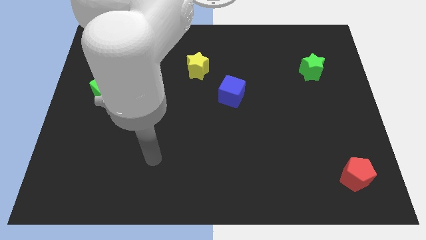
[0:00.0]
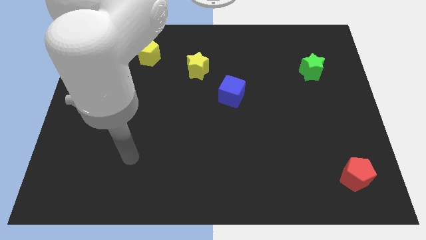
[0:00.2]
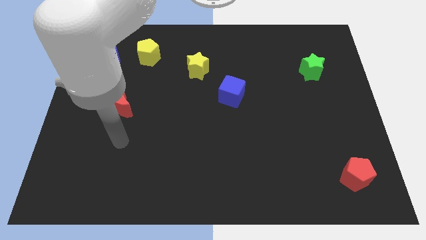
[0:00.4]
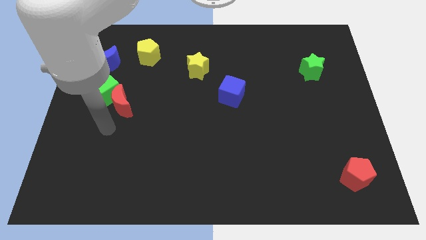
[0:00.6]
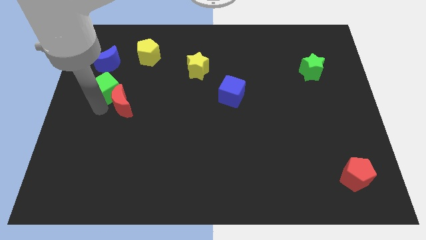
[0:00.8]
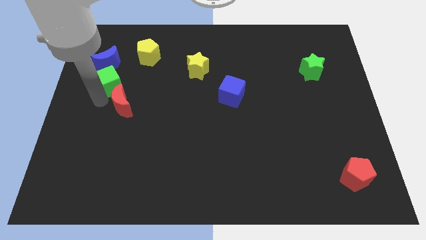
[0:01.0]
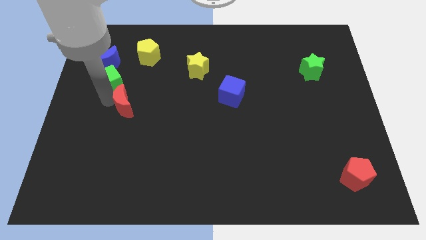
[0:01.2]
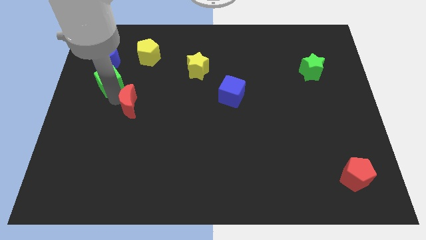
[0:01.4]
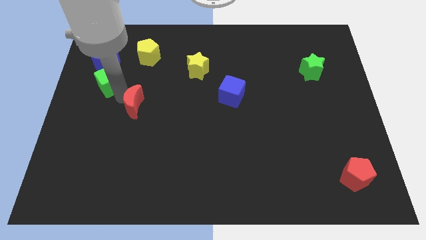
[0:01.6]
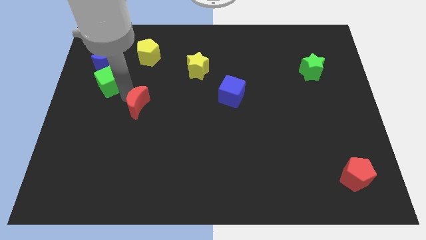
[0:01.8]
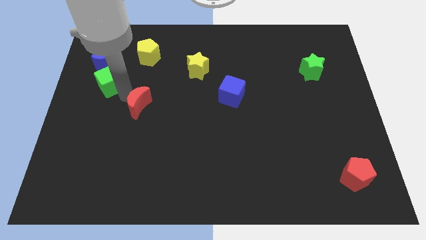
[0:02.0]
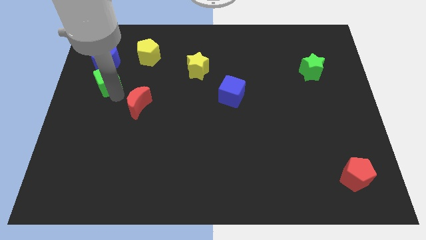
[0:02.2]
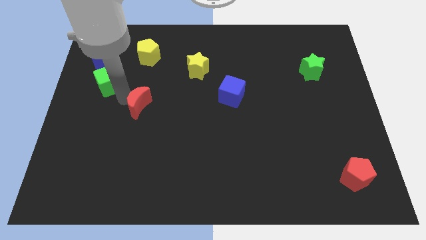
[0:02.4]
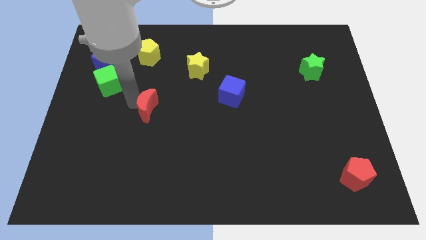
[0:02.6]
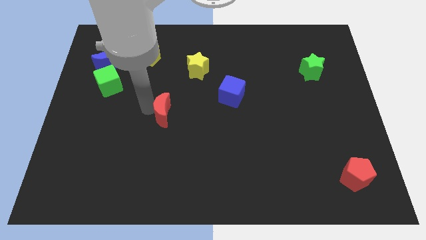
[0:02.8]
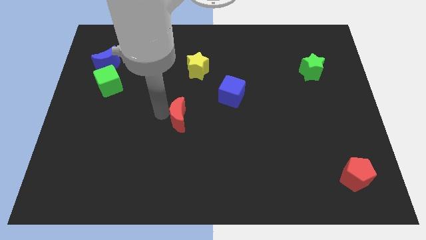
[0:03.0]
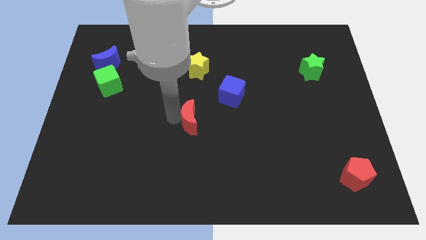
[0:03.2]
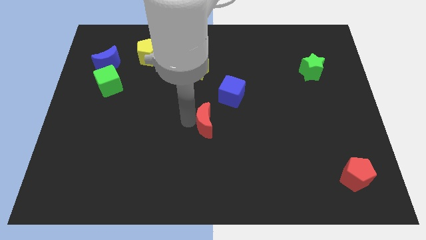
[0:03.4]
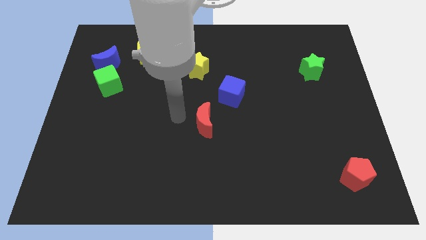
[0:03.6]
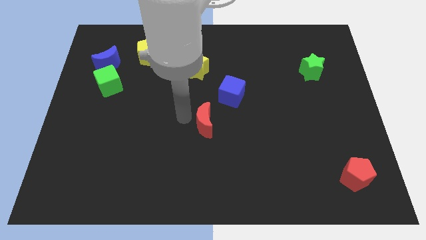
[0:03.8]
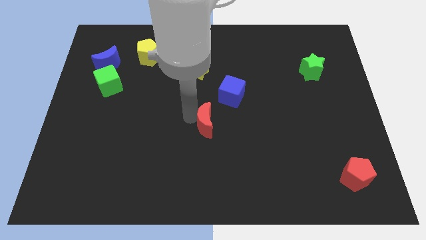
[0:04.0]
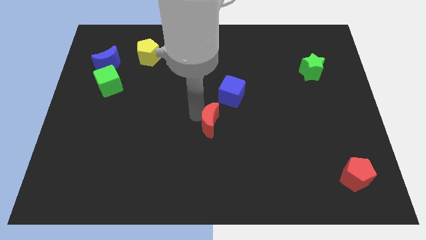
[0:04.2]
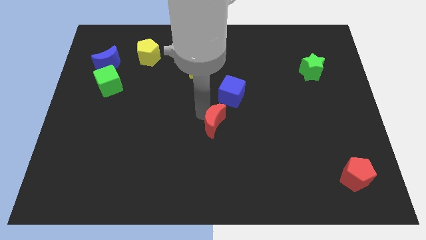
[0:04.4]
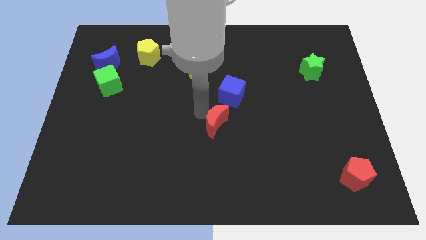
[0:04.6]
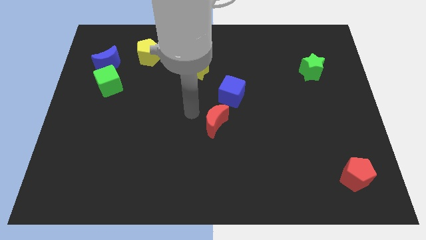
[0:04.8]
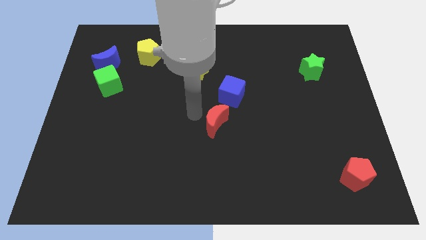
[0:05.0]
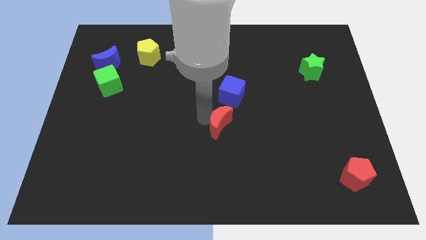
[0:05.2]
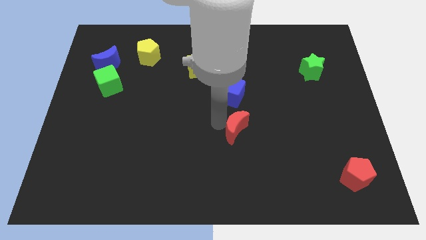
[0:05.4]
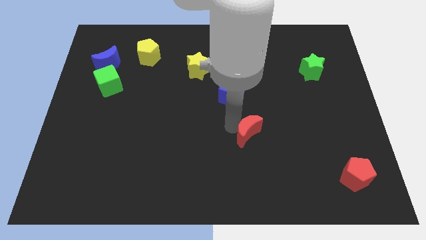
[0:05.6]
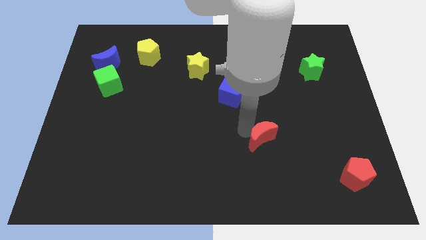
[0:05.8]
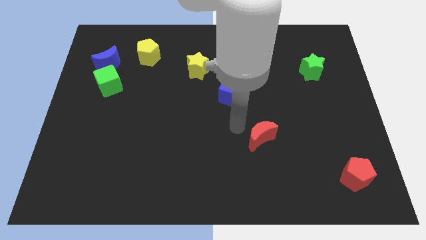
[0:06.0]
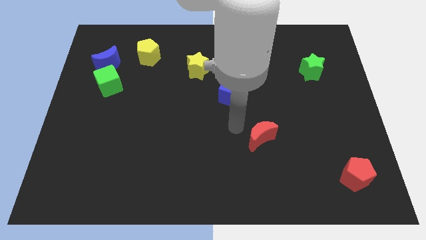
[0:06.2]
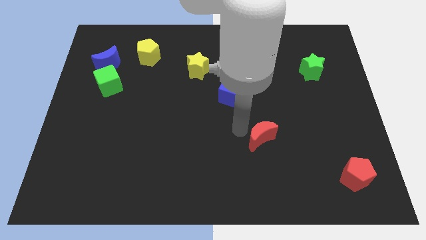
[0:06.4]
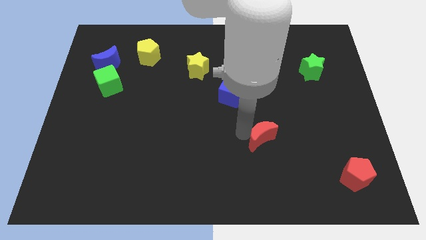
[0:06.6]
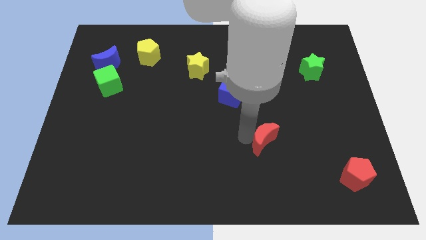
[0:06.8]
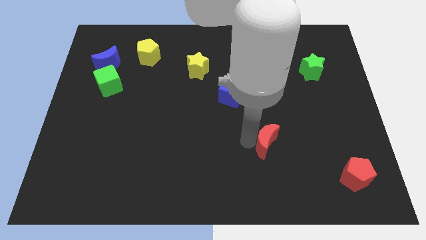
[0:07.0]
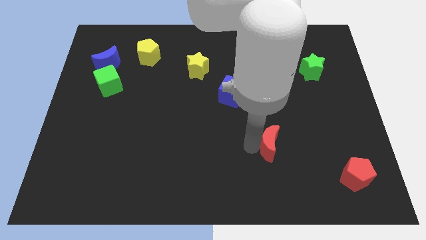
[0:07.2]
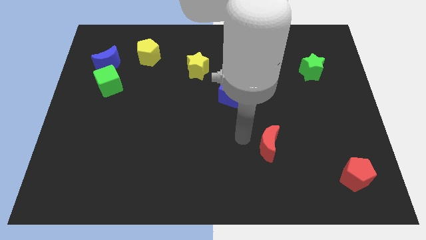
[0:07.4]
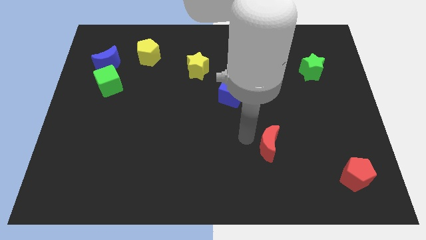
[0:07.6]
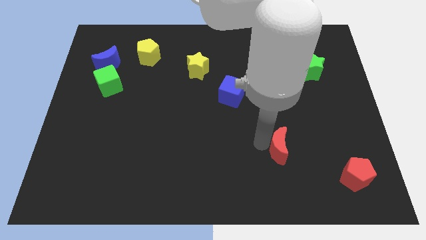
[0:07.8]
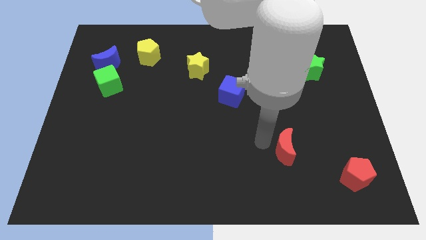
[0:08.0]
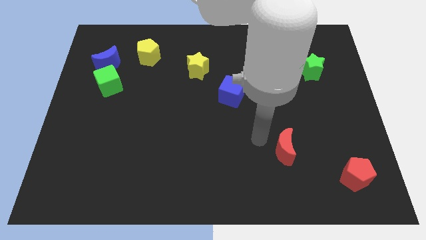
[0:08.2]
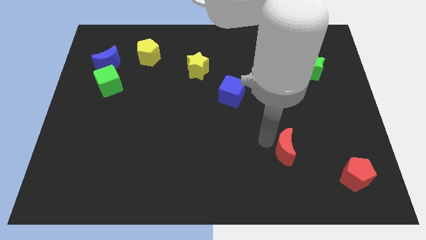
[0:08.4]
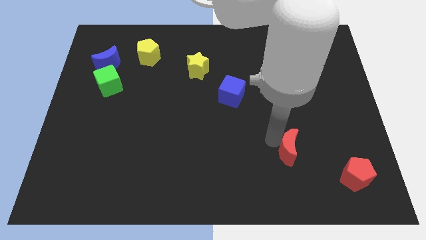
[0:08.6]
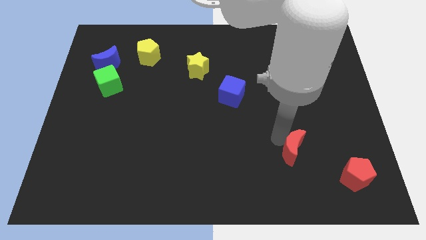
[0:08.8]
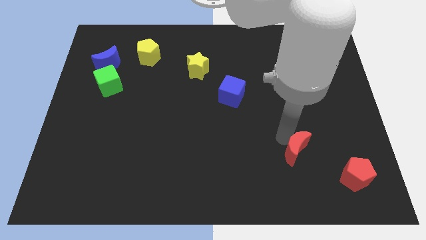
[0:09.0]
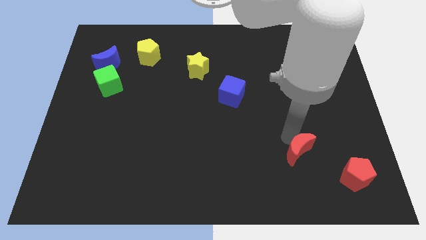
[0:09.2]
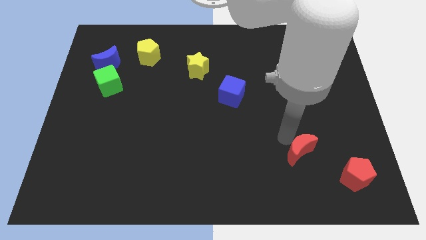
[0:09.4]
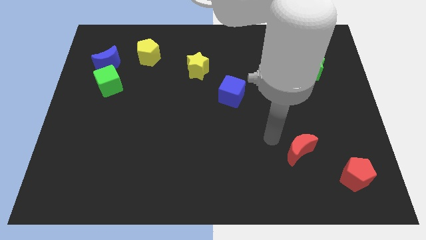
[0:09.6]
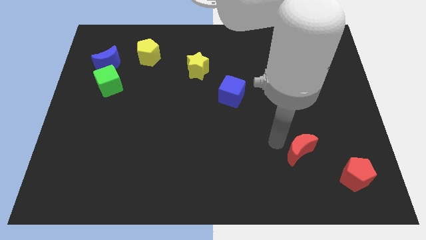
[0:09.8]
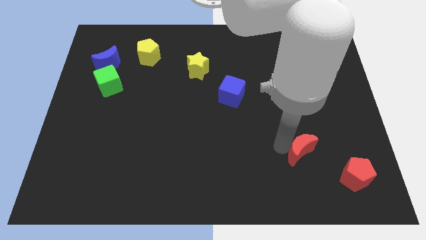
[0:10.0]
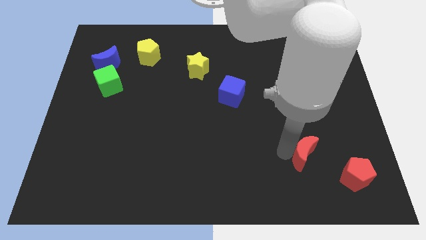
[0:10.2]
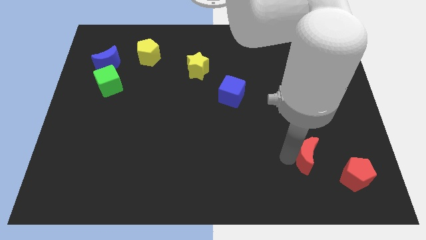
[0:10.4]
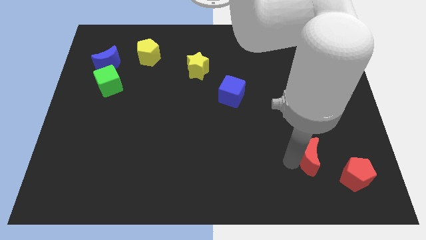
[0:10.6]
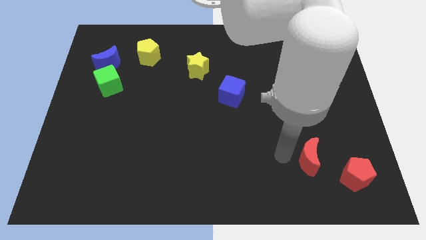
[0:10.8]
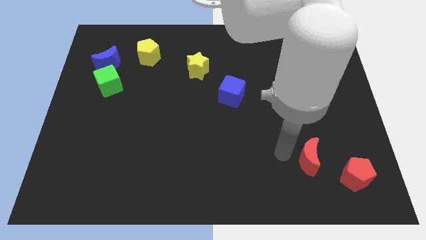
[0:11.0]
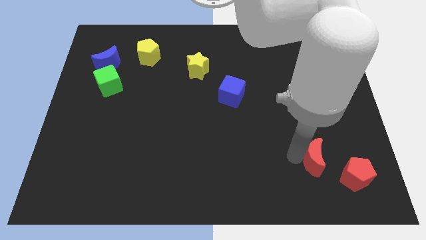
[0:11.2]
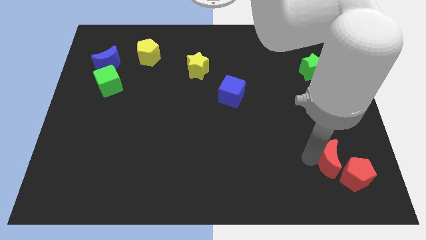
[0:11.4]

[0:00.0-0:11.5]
push the red moon close to the red pentagon

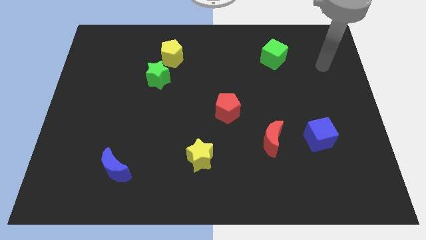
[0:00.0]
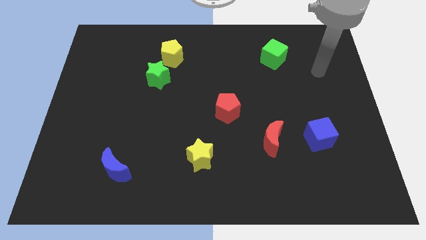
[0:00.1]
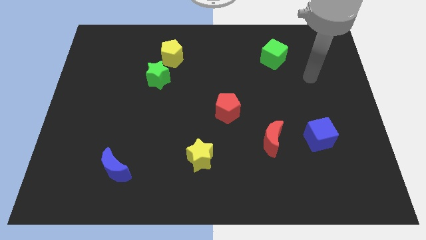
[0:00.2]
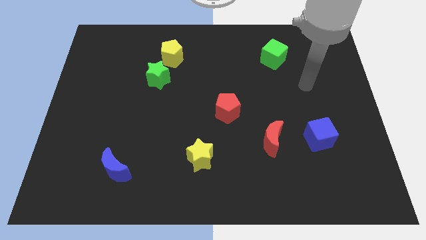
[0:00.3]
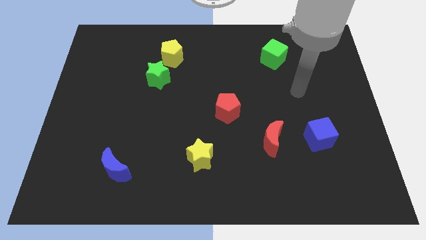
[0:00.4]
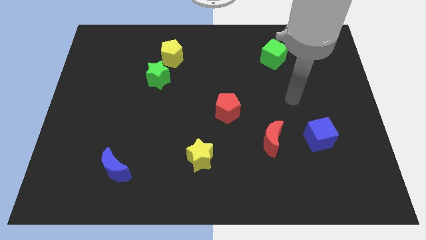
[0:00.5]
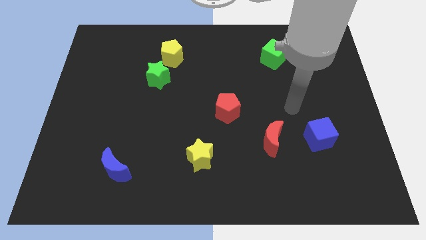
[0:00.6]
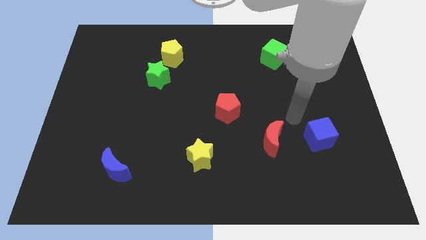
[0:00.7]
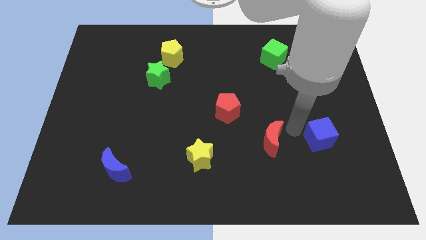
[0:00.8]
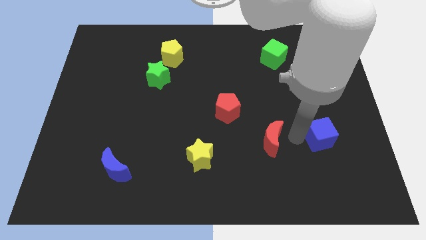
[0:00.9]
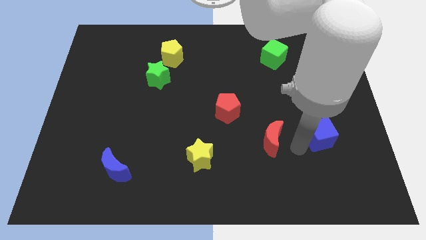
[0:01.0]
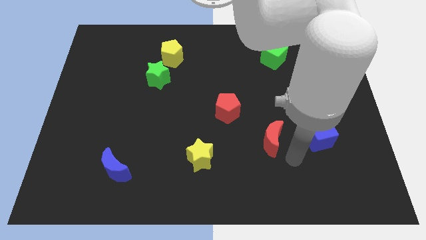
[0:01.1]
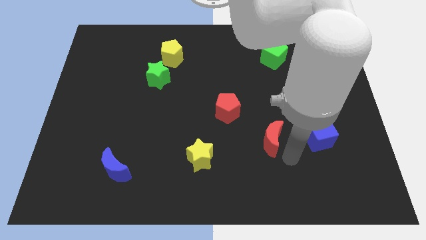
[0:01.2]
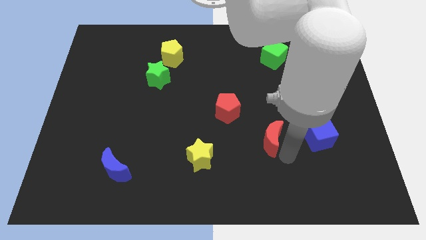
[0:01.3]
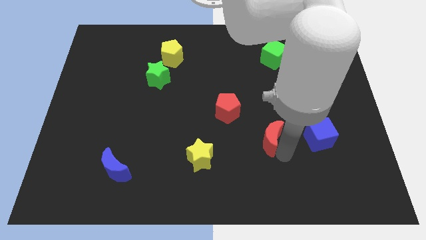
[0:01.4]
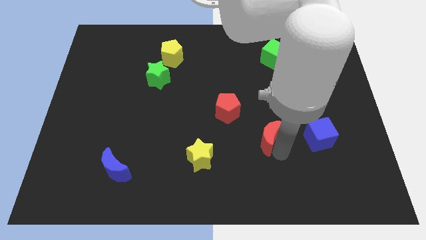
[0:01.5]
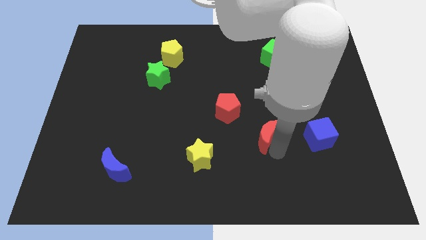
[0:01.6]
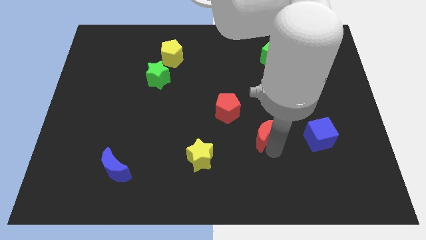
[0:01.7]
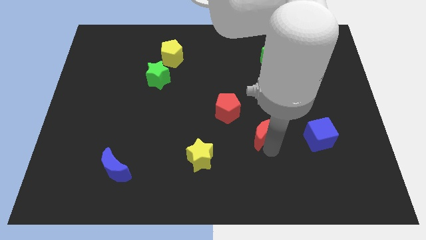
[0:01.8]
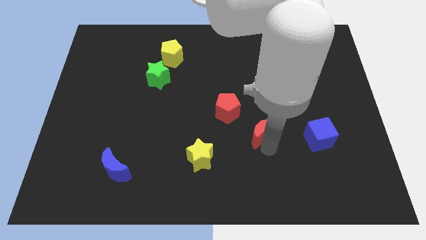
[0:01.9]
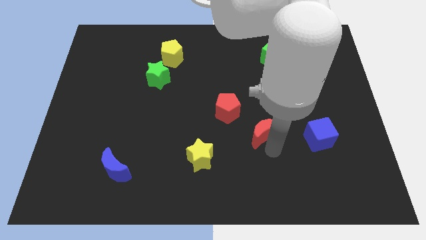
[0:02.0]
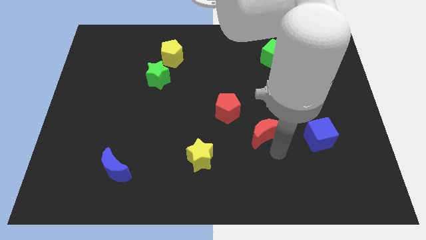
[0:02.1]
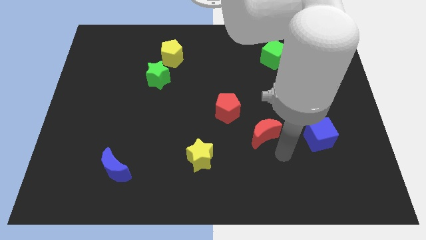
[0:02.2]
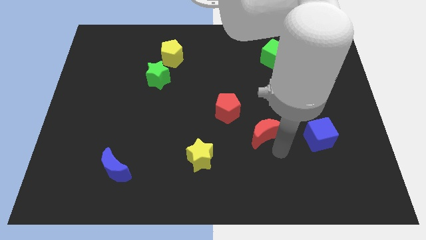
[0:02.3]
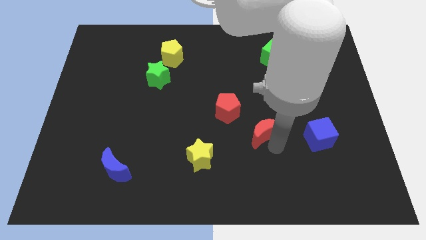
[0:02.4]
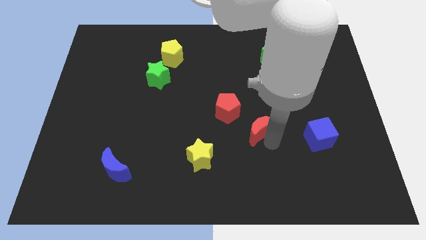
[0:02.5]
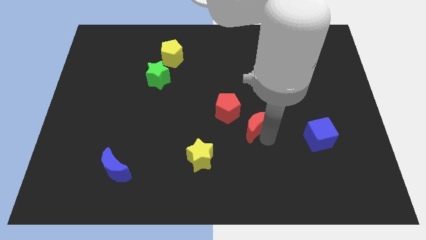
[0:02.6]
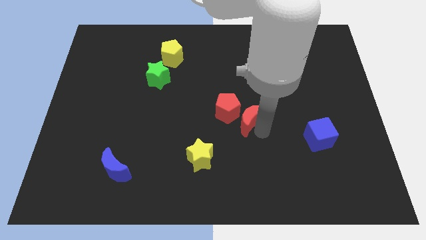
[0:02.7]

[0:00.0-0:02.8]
move the red moon towards the red pentagon
